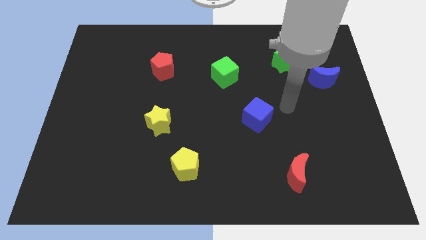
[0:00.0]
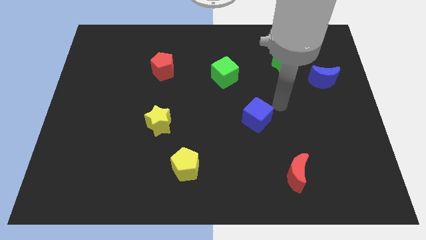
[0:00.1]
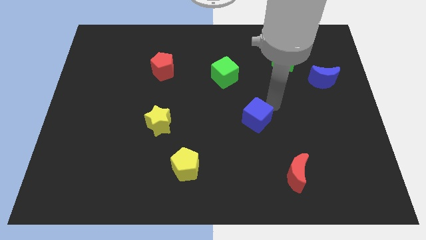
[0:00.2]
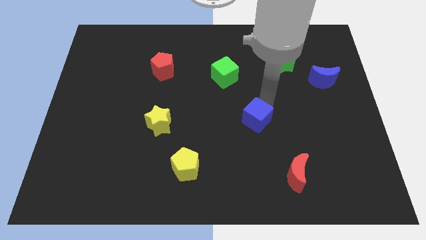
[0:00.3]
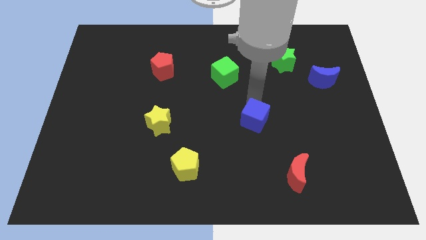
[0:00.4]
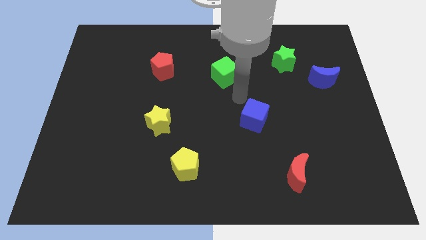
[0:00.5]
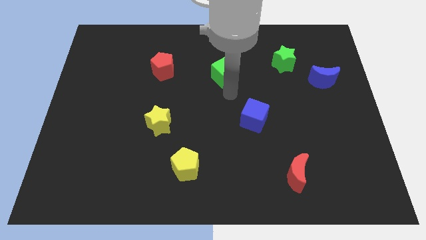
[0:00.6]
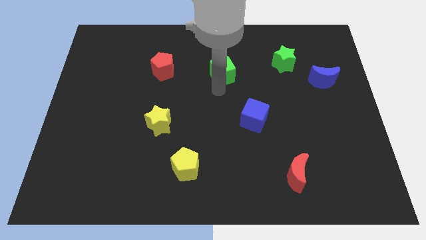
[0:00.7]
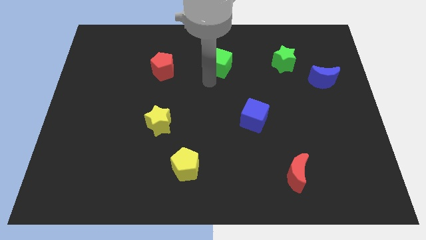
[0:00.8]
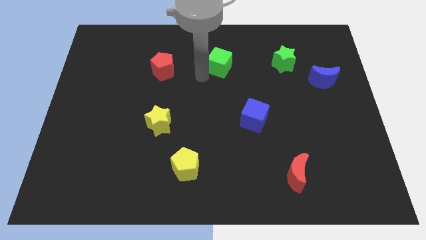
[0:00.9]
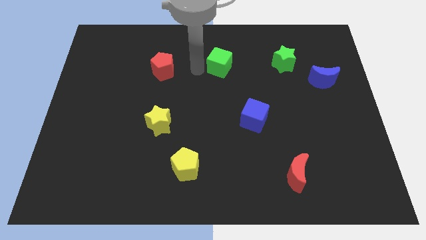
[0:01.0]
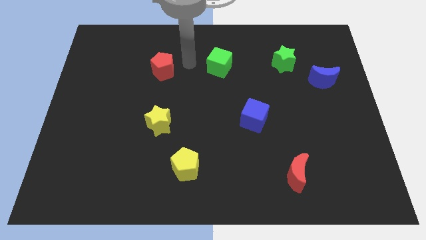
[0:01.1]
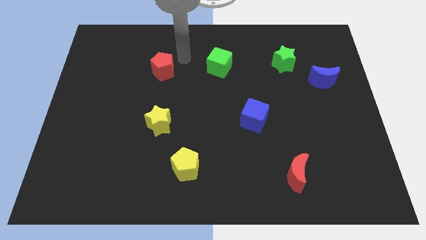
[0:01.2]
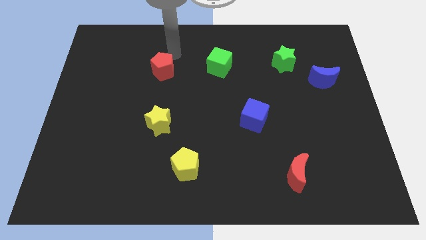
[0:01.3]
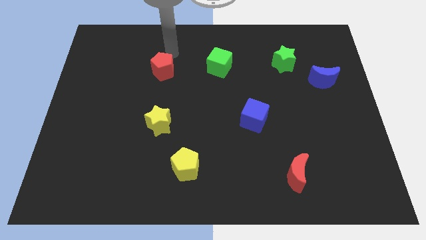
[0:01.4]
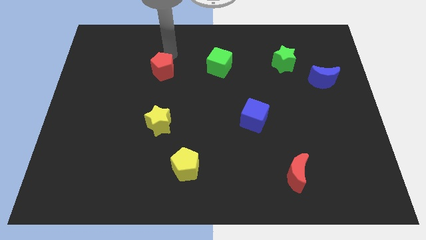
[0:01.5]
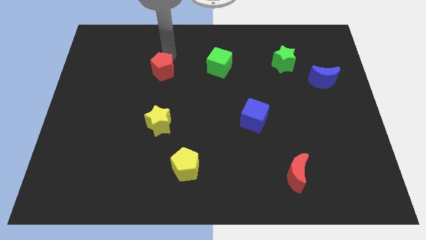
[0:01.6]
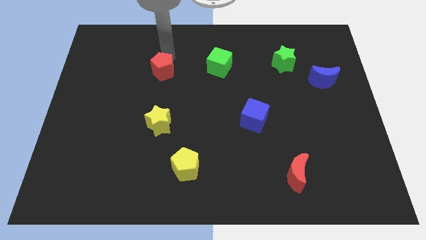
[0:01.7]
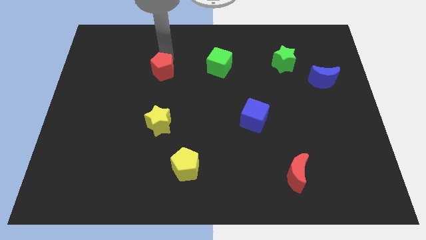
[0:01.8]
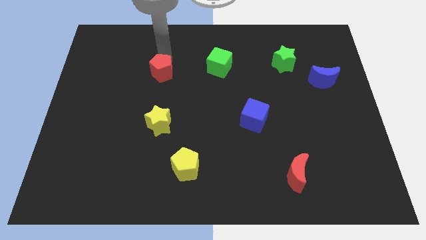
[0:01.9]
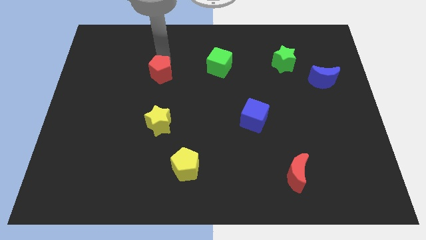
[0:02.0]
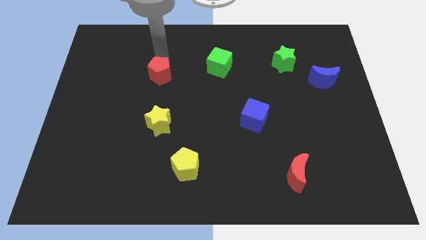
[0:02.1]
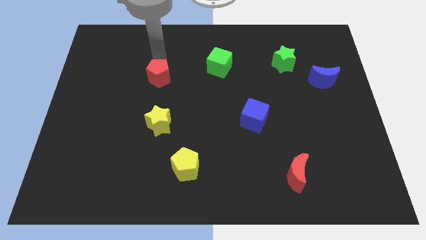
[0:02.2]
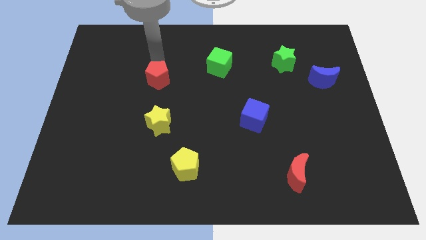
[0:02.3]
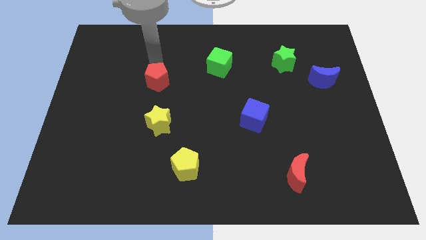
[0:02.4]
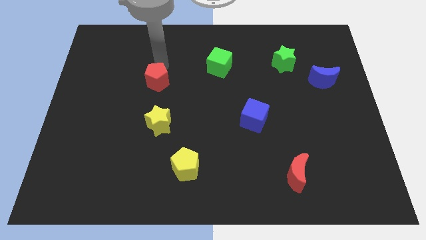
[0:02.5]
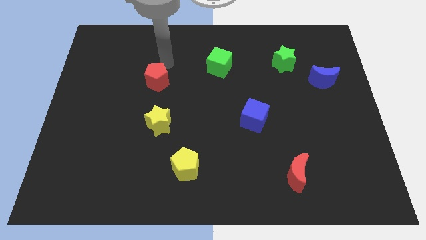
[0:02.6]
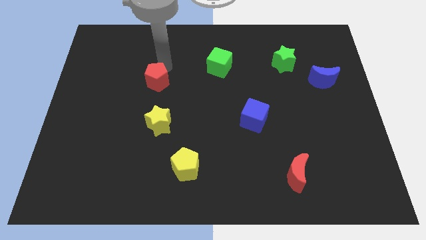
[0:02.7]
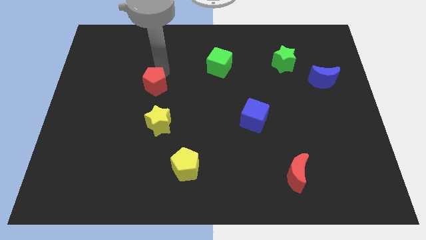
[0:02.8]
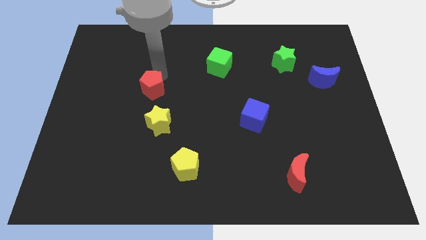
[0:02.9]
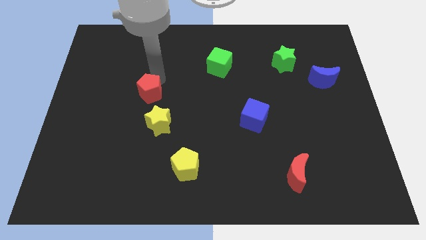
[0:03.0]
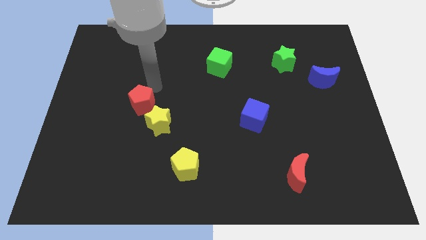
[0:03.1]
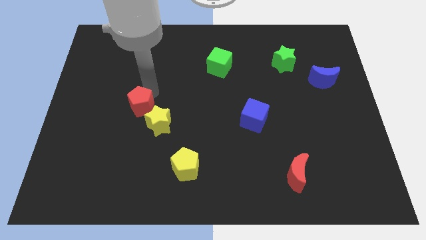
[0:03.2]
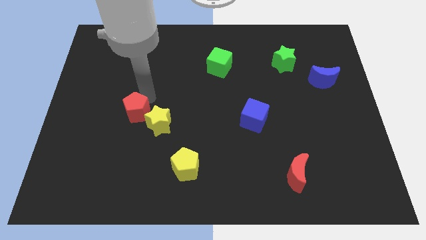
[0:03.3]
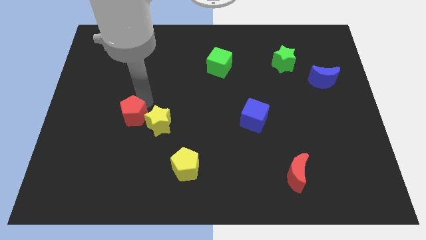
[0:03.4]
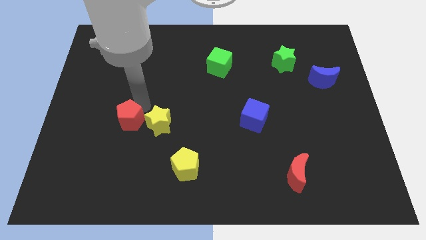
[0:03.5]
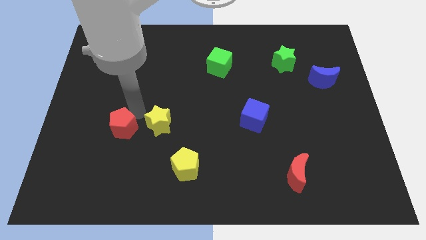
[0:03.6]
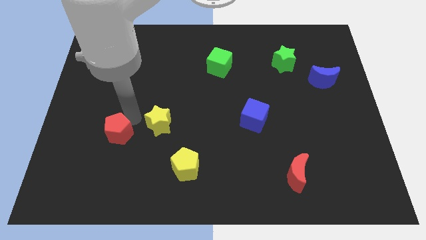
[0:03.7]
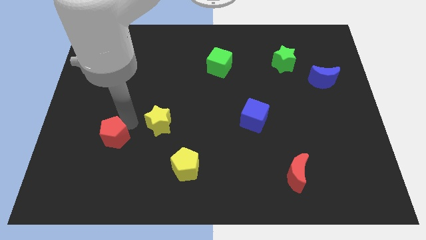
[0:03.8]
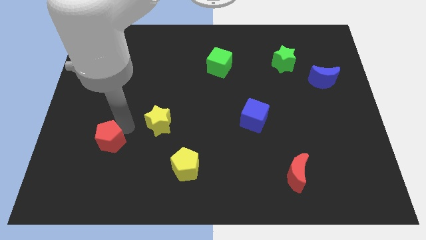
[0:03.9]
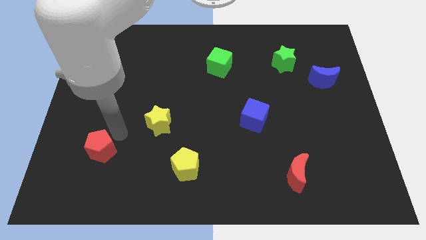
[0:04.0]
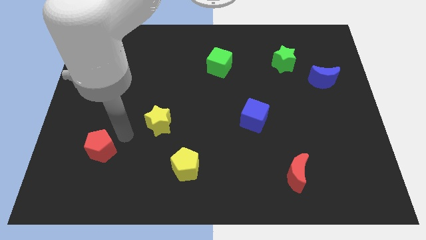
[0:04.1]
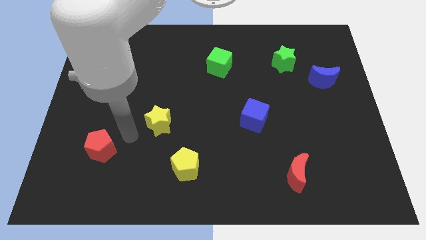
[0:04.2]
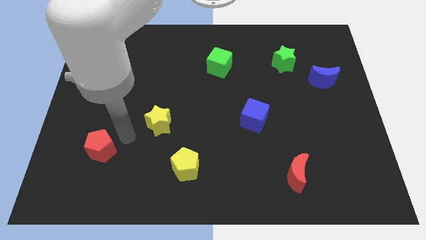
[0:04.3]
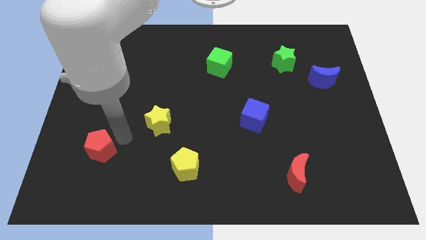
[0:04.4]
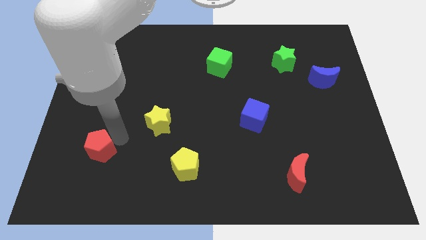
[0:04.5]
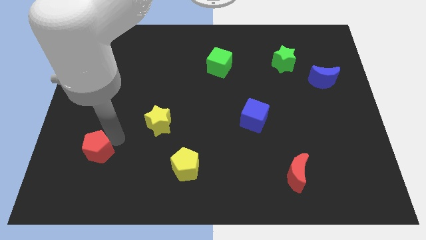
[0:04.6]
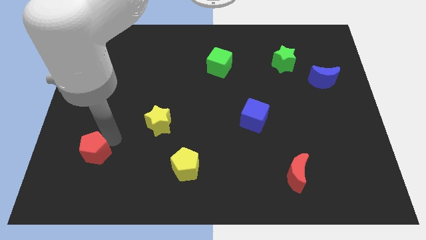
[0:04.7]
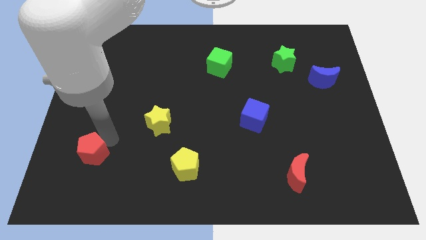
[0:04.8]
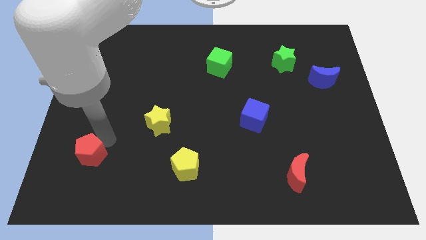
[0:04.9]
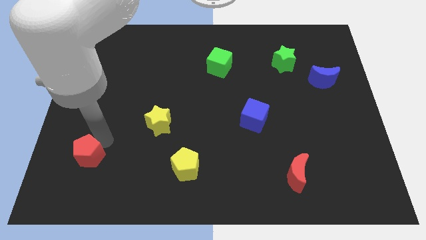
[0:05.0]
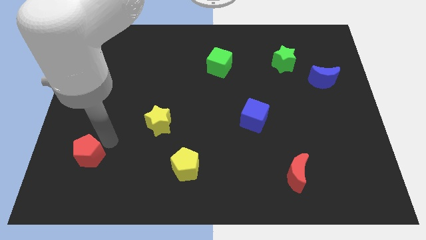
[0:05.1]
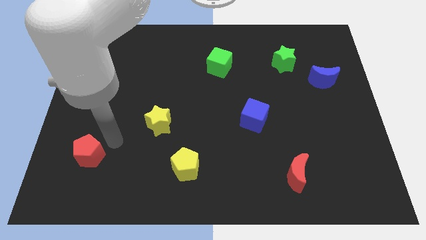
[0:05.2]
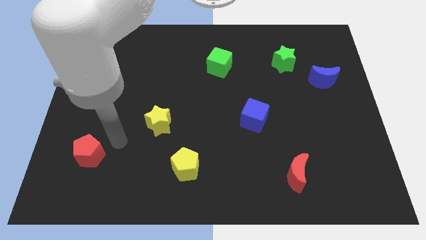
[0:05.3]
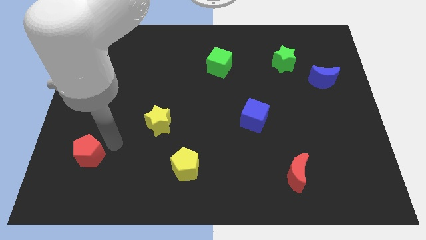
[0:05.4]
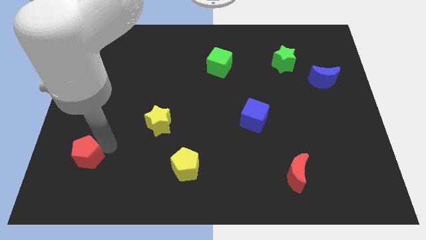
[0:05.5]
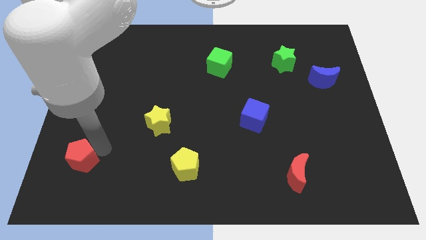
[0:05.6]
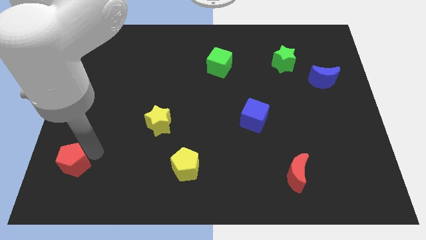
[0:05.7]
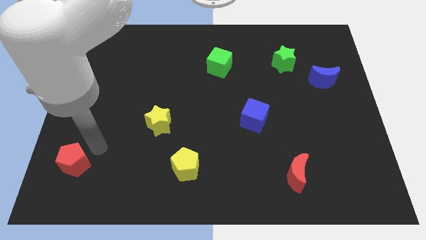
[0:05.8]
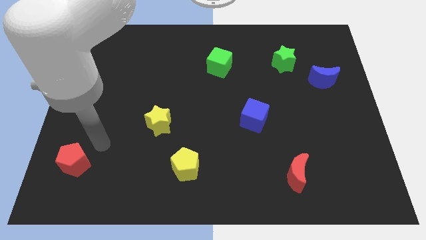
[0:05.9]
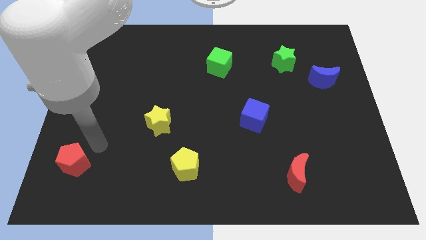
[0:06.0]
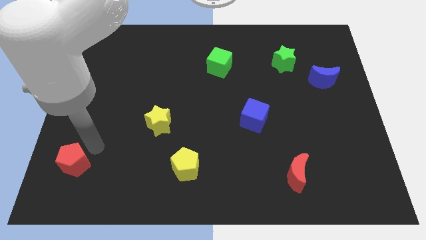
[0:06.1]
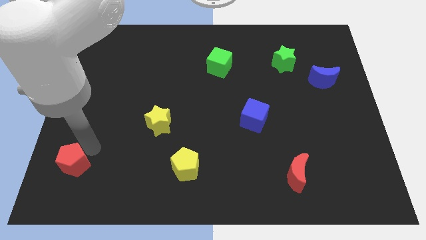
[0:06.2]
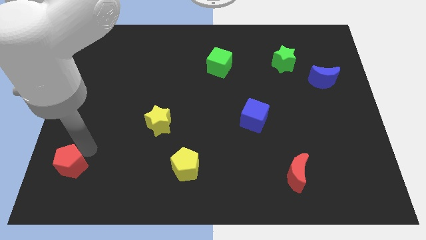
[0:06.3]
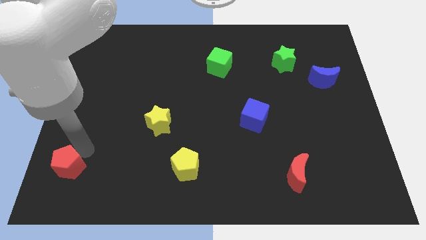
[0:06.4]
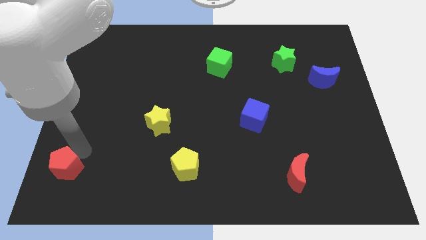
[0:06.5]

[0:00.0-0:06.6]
push the red pentagon to the lower left corner
